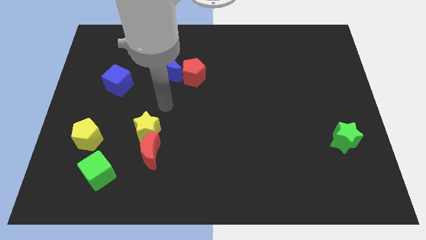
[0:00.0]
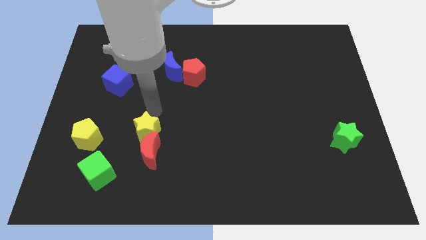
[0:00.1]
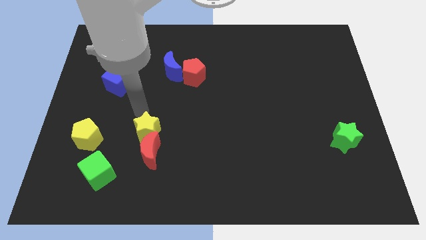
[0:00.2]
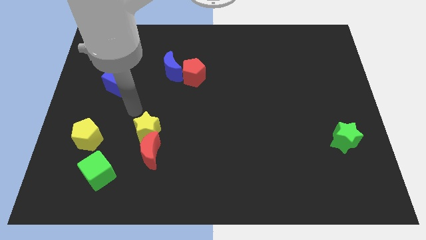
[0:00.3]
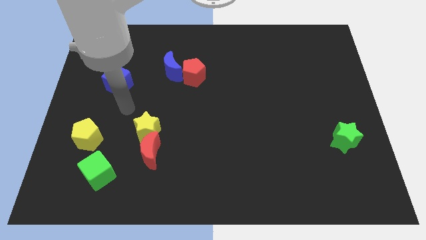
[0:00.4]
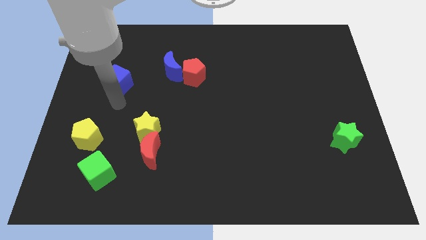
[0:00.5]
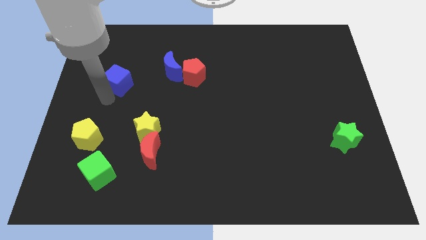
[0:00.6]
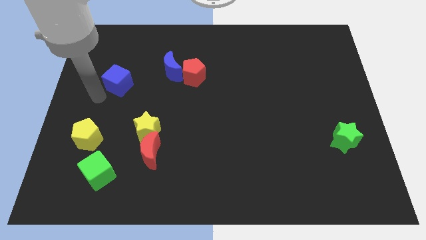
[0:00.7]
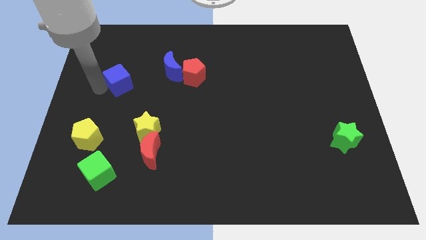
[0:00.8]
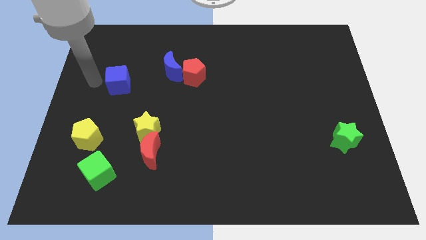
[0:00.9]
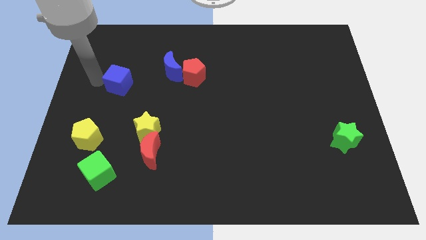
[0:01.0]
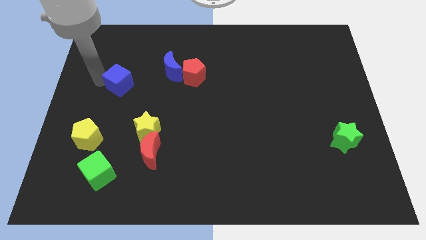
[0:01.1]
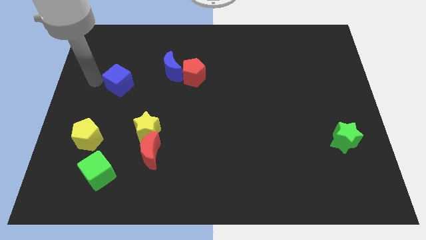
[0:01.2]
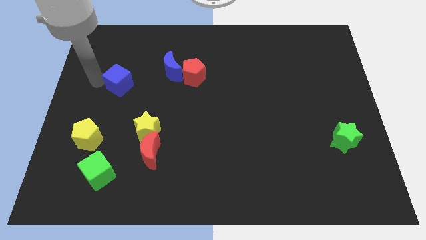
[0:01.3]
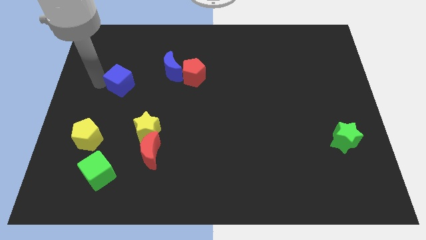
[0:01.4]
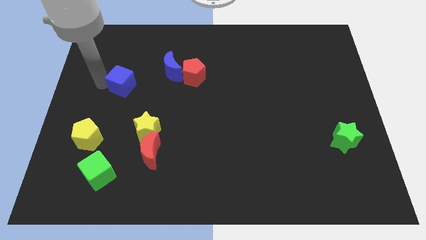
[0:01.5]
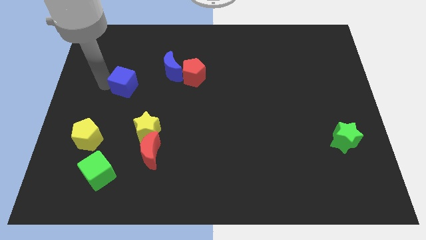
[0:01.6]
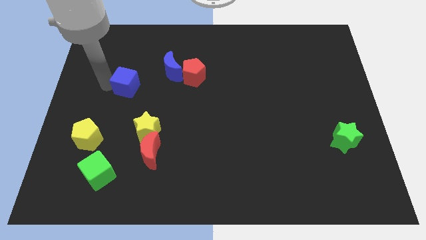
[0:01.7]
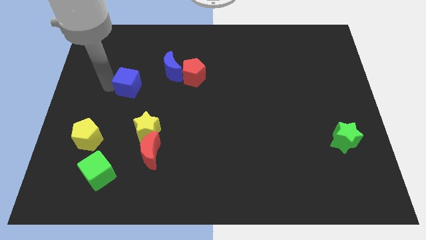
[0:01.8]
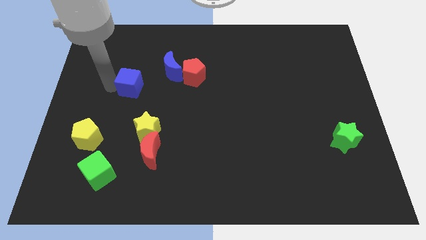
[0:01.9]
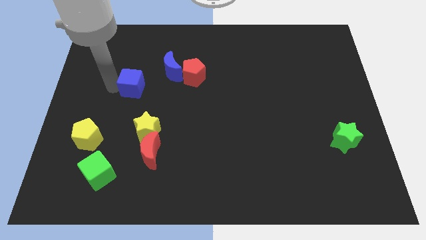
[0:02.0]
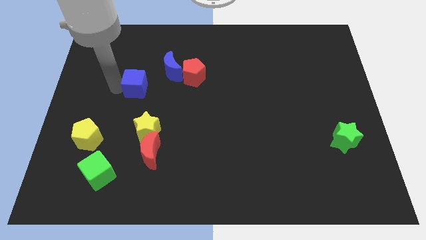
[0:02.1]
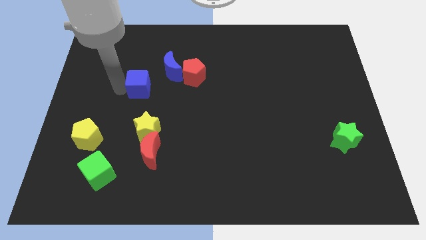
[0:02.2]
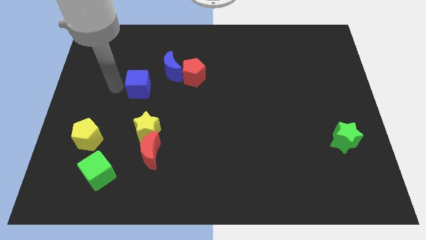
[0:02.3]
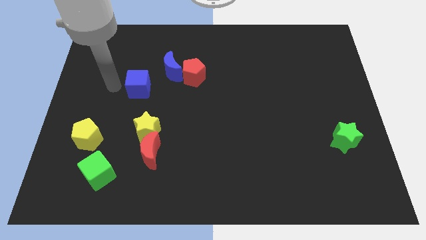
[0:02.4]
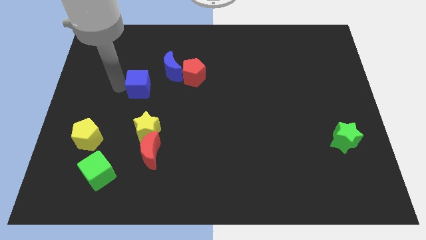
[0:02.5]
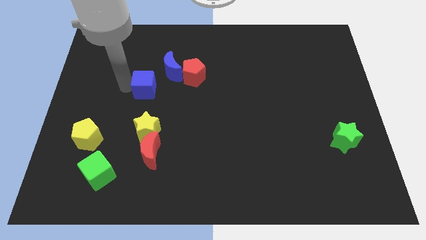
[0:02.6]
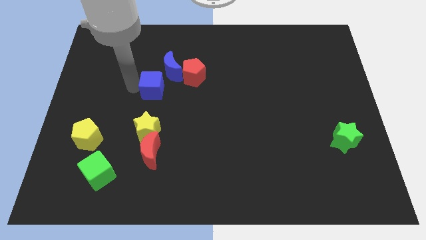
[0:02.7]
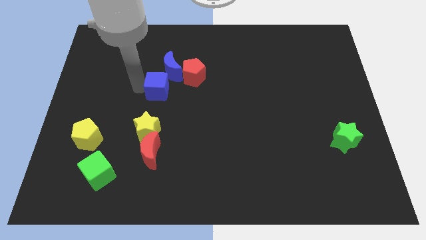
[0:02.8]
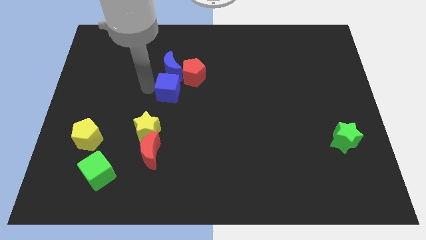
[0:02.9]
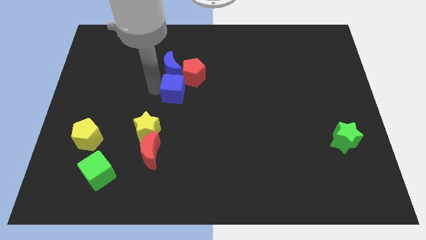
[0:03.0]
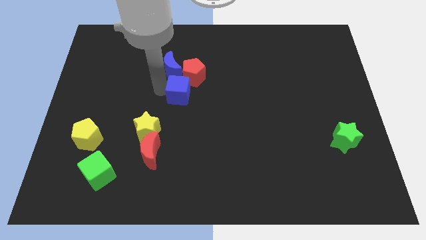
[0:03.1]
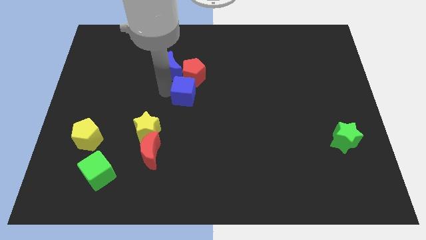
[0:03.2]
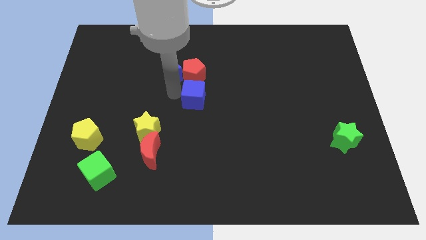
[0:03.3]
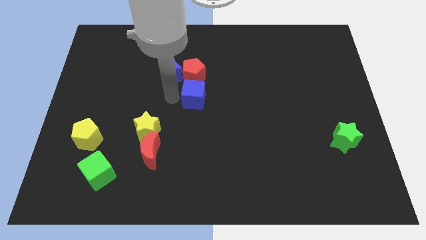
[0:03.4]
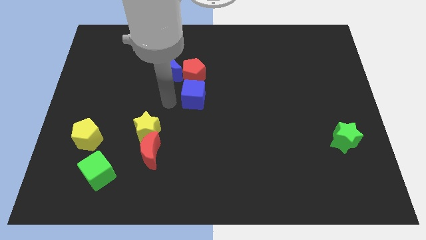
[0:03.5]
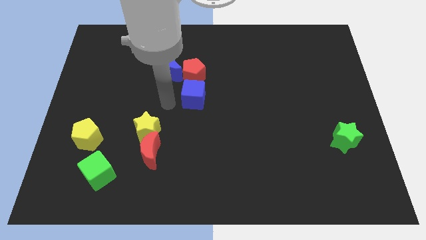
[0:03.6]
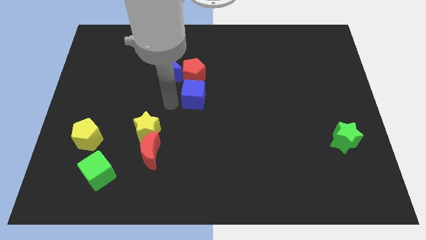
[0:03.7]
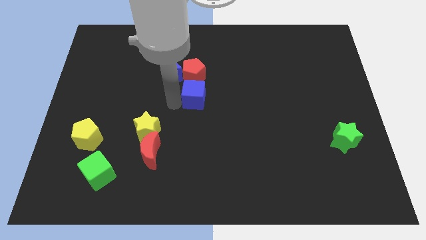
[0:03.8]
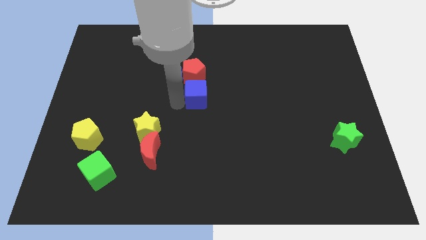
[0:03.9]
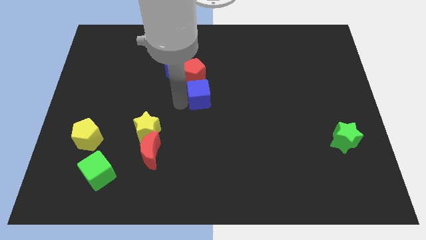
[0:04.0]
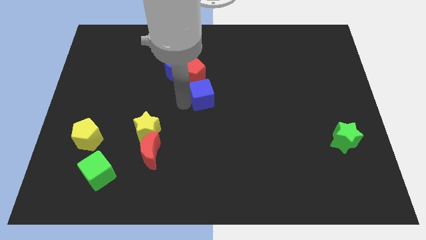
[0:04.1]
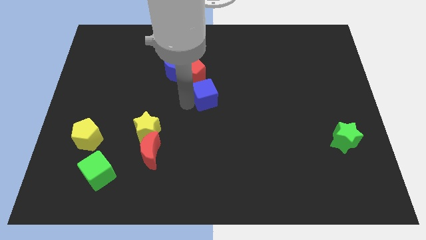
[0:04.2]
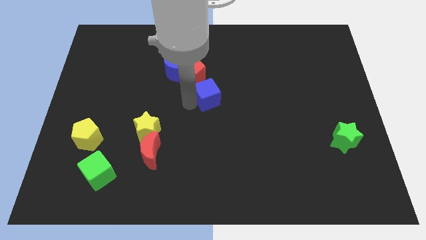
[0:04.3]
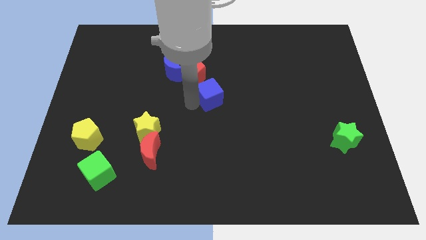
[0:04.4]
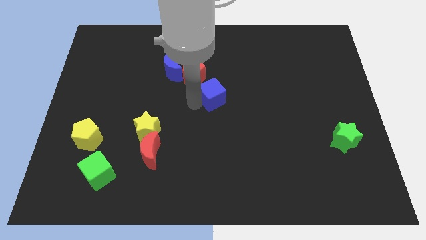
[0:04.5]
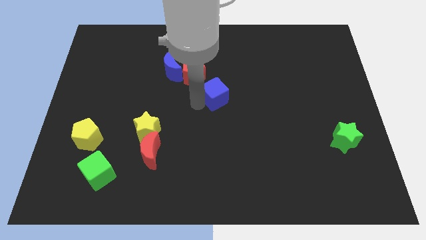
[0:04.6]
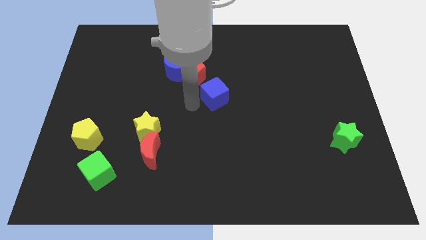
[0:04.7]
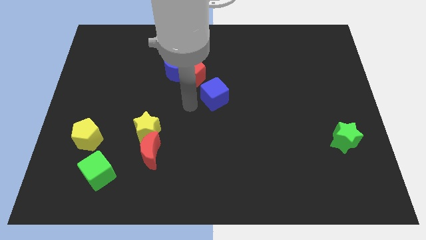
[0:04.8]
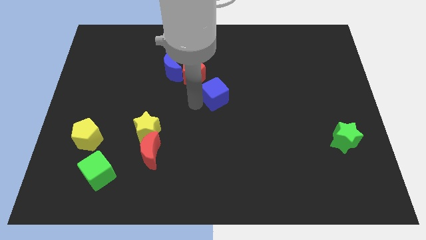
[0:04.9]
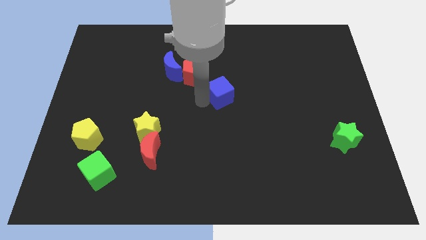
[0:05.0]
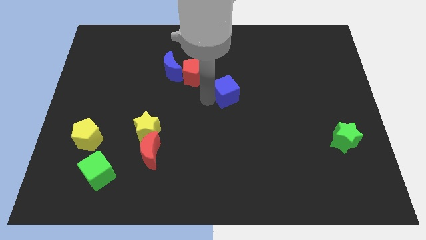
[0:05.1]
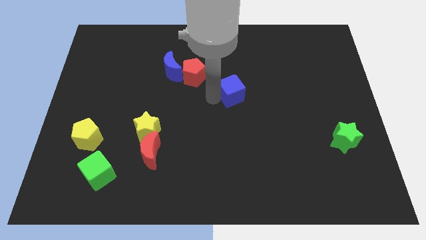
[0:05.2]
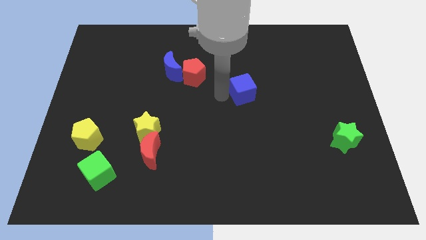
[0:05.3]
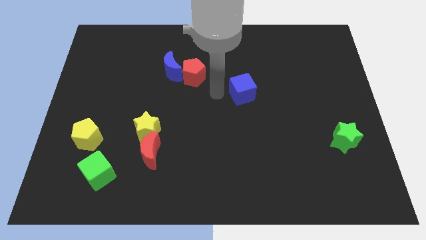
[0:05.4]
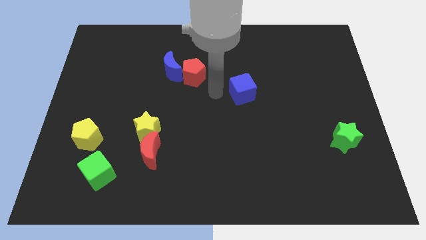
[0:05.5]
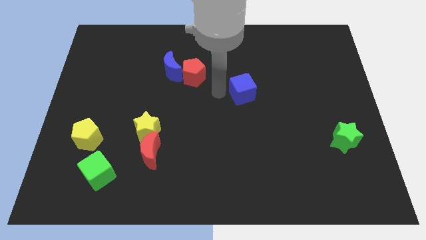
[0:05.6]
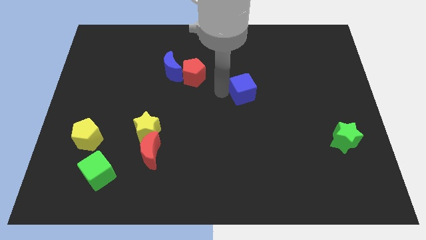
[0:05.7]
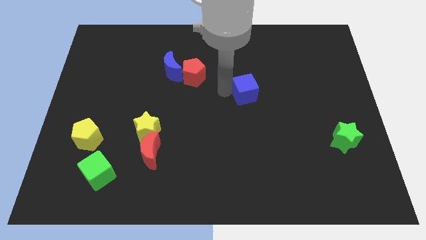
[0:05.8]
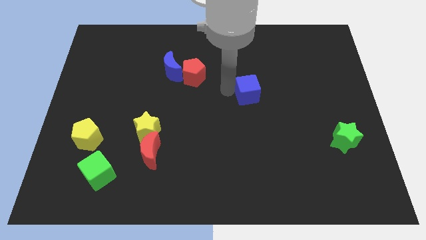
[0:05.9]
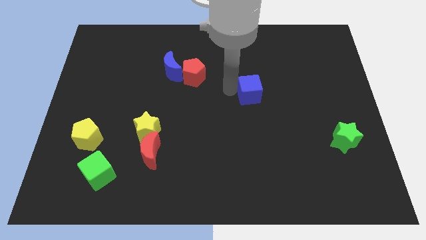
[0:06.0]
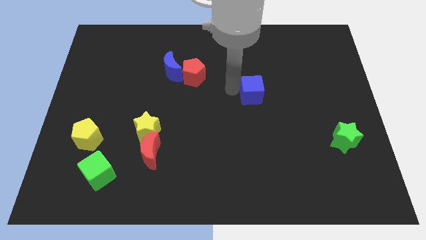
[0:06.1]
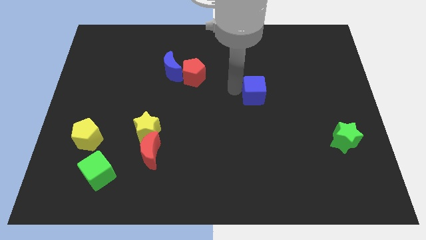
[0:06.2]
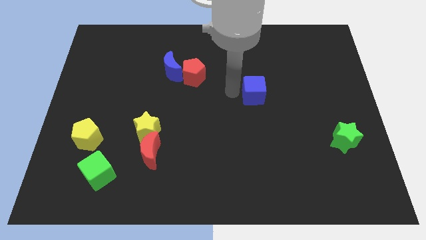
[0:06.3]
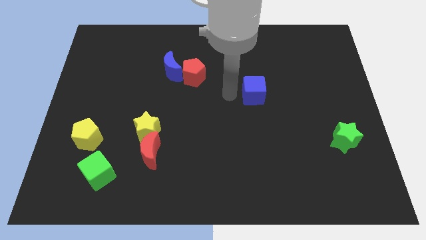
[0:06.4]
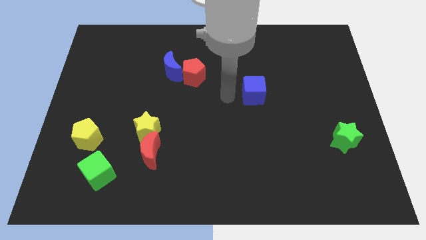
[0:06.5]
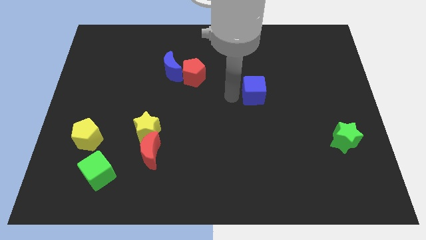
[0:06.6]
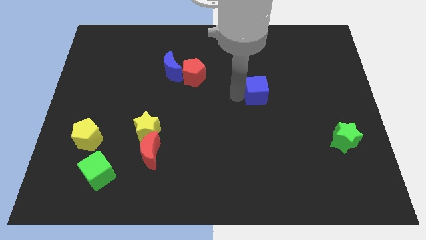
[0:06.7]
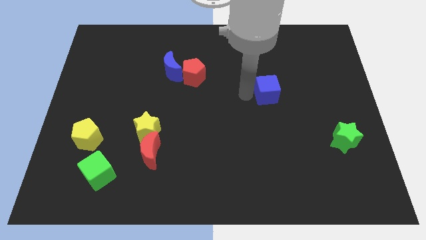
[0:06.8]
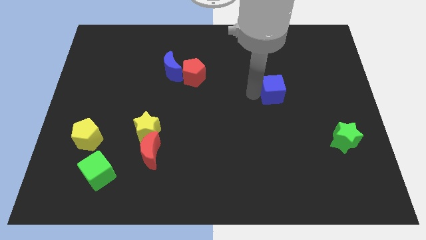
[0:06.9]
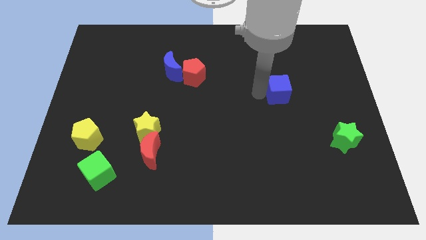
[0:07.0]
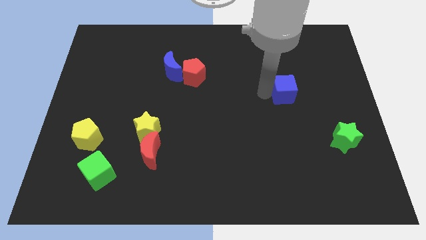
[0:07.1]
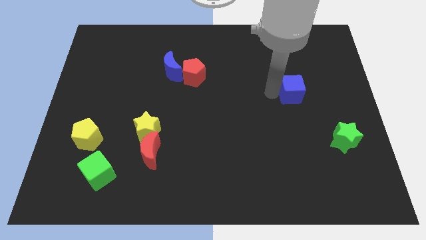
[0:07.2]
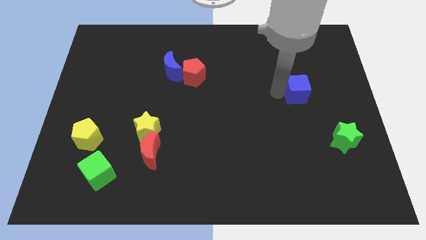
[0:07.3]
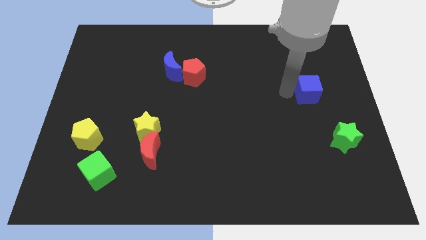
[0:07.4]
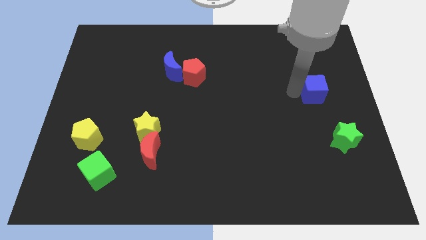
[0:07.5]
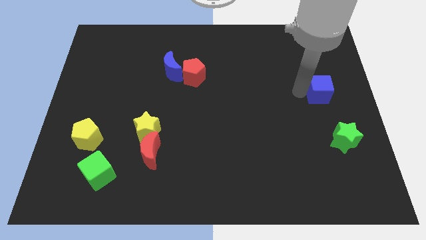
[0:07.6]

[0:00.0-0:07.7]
put the blue cube to the right side
